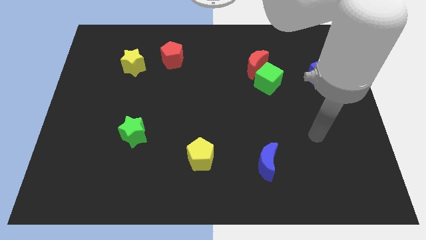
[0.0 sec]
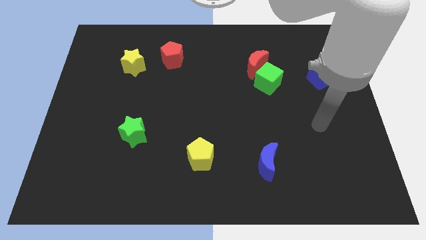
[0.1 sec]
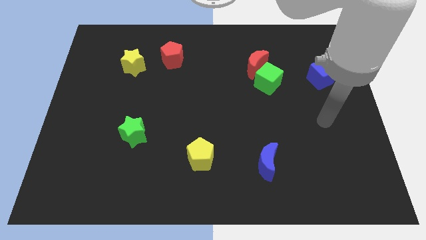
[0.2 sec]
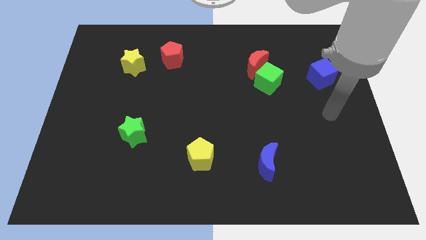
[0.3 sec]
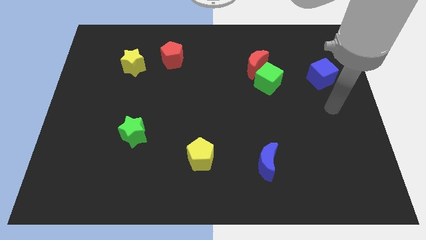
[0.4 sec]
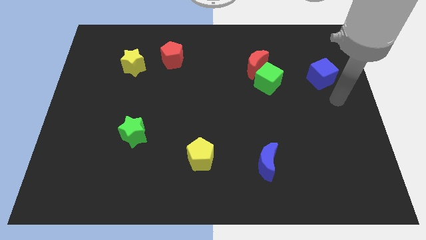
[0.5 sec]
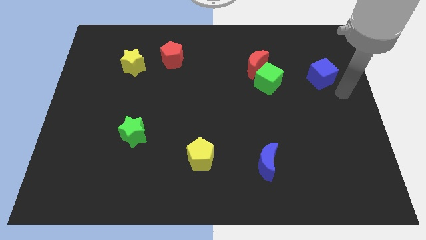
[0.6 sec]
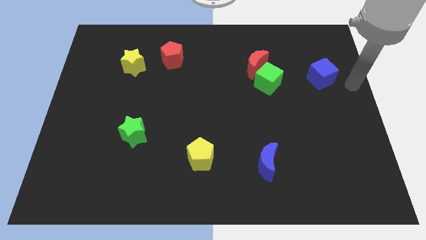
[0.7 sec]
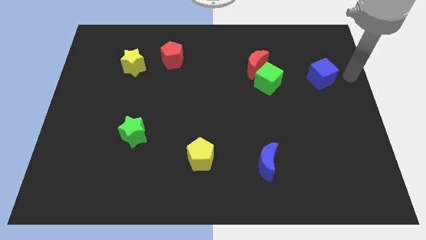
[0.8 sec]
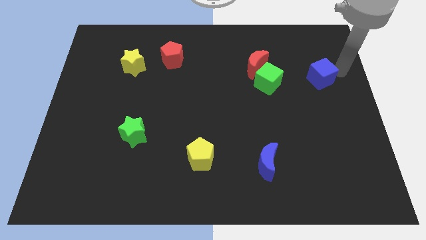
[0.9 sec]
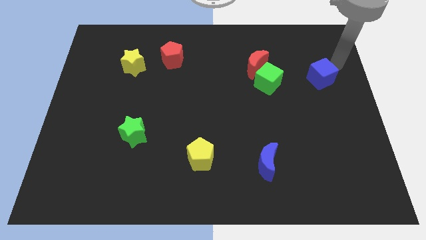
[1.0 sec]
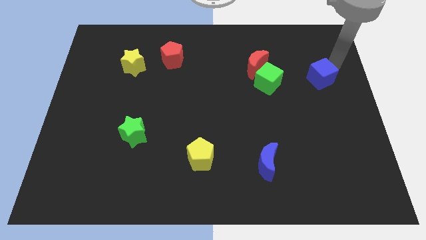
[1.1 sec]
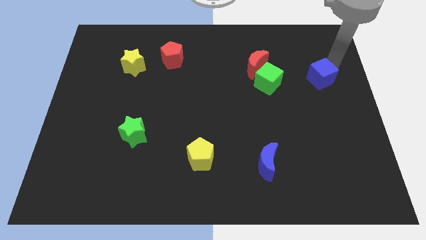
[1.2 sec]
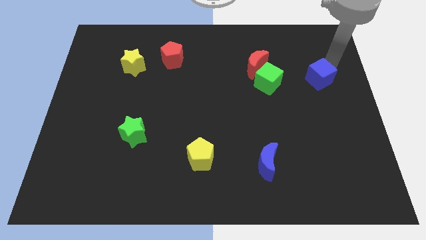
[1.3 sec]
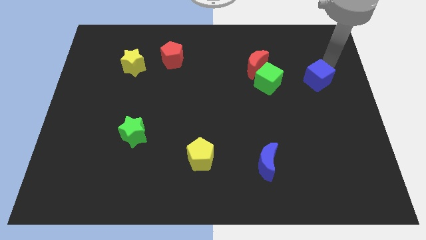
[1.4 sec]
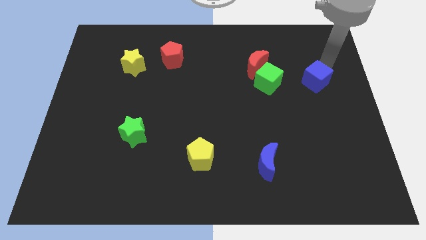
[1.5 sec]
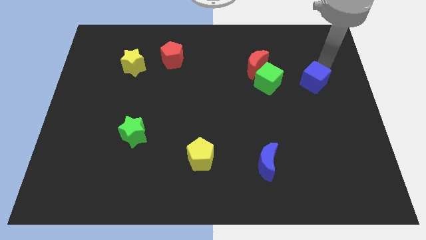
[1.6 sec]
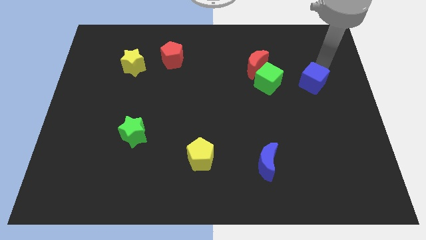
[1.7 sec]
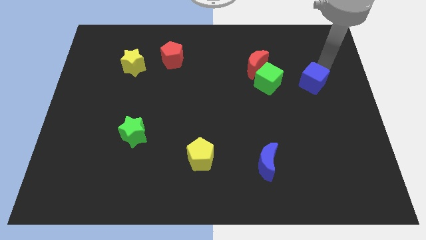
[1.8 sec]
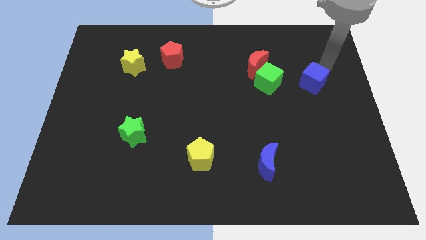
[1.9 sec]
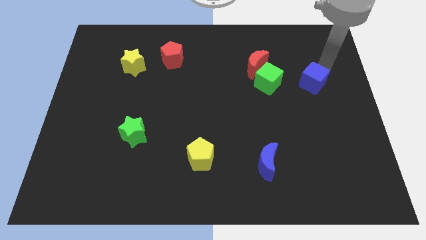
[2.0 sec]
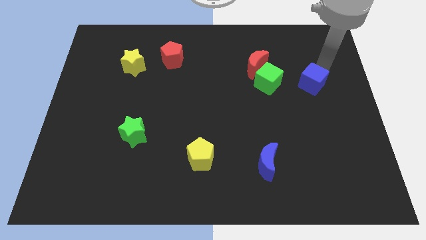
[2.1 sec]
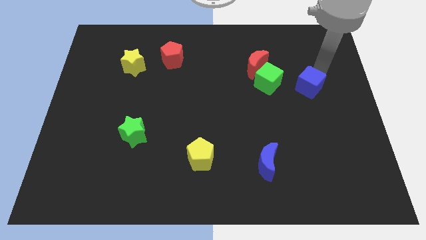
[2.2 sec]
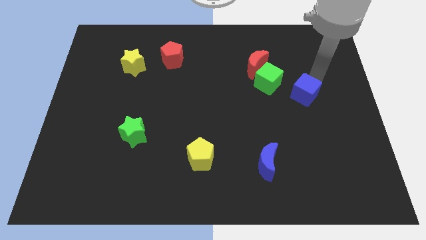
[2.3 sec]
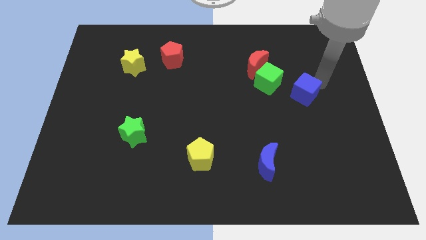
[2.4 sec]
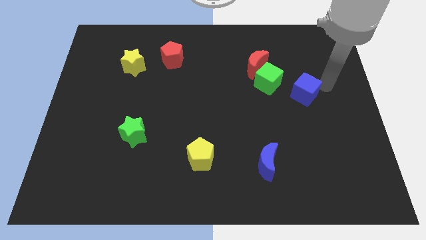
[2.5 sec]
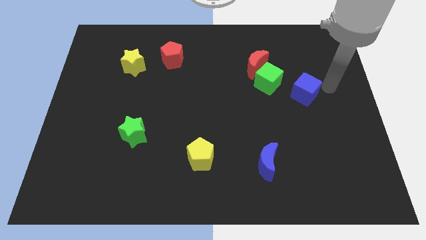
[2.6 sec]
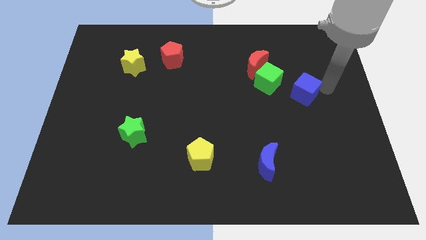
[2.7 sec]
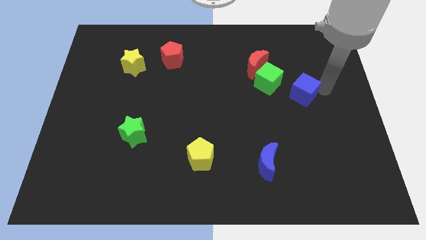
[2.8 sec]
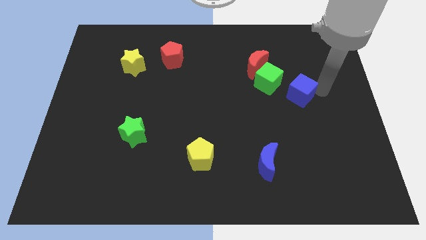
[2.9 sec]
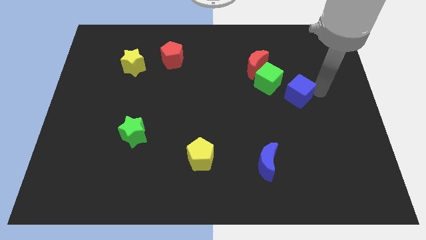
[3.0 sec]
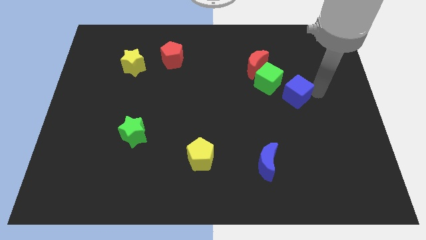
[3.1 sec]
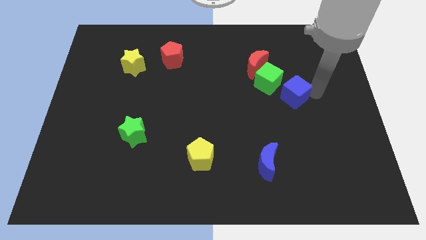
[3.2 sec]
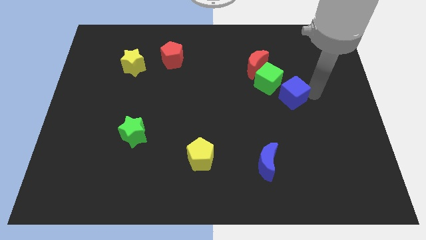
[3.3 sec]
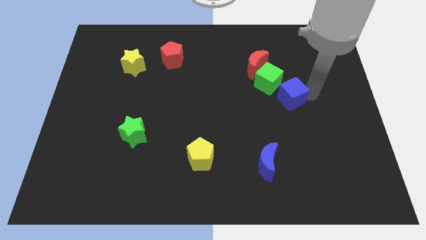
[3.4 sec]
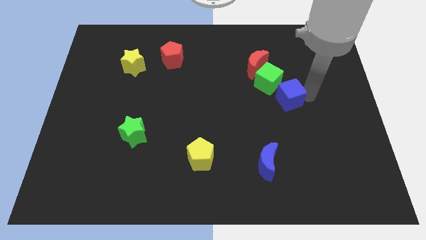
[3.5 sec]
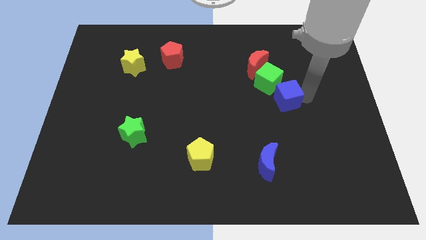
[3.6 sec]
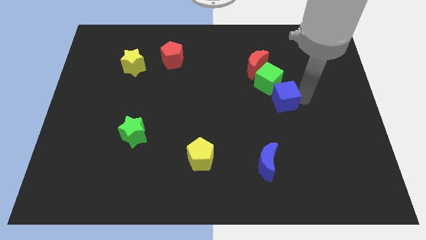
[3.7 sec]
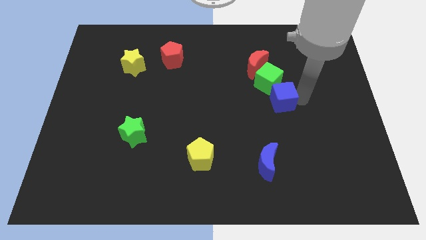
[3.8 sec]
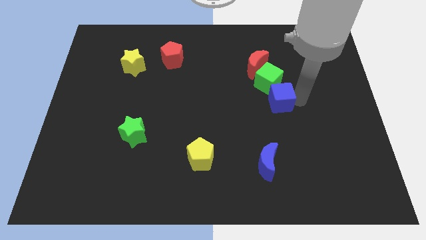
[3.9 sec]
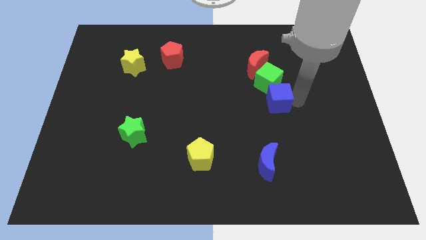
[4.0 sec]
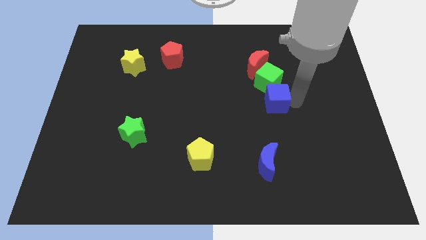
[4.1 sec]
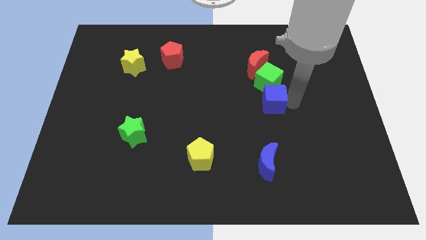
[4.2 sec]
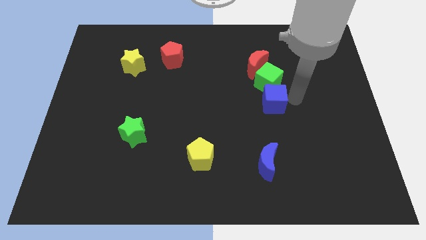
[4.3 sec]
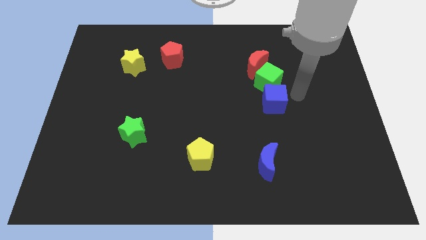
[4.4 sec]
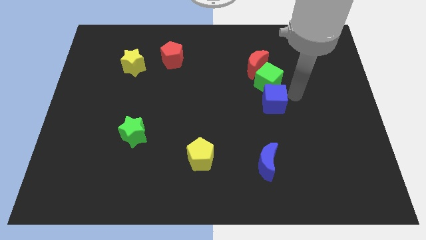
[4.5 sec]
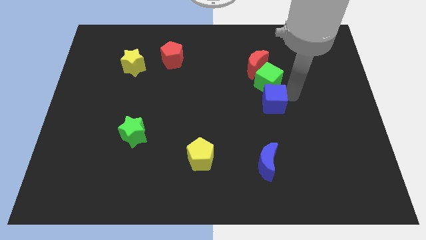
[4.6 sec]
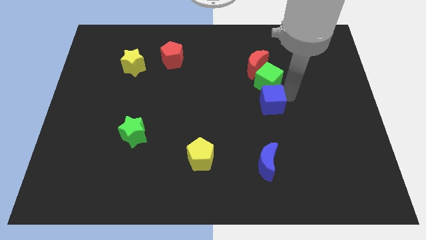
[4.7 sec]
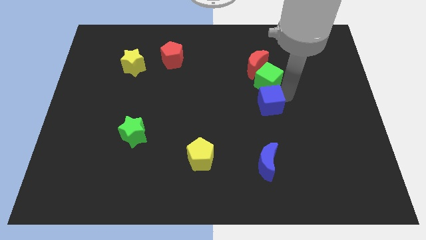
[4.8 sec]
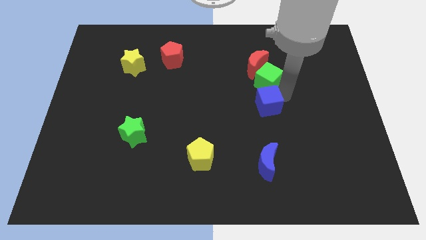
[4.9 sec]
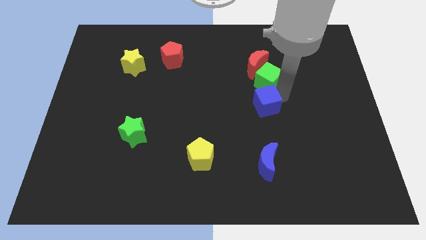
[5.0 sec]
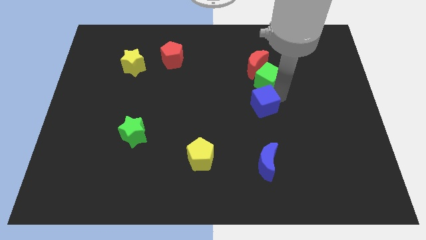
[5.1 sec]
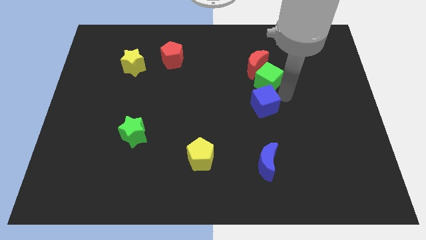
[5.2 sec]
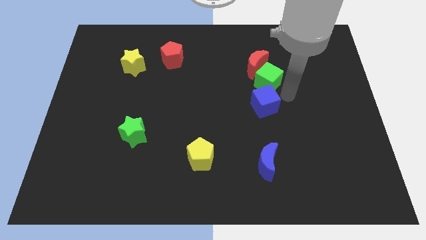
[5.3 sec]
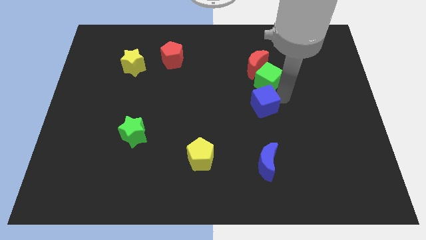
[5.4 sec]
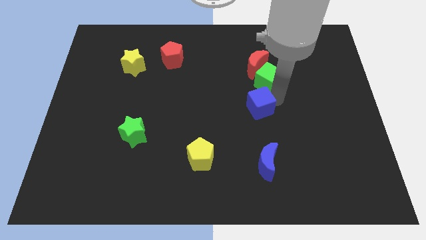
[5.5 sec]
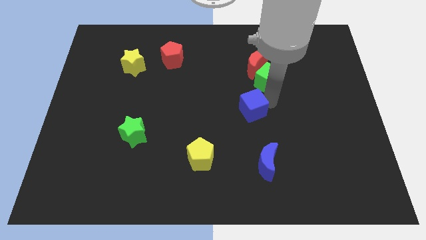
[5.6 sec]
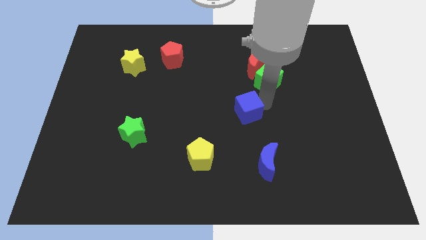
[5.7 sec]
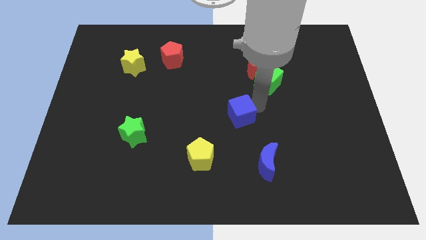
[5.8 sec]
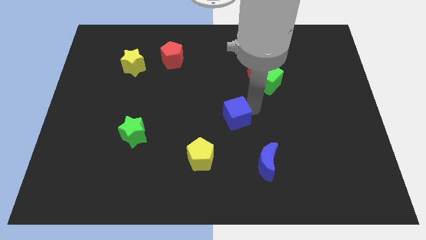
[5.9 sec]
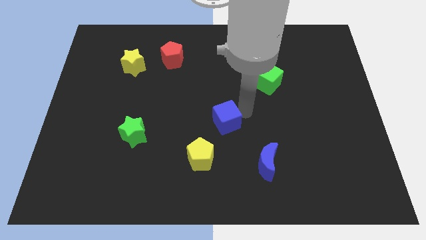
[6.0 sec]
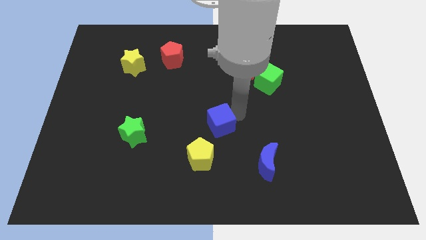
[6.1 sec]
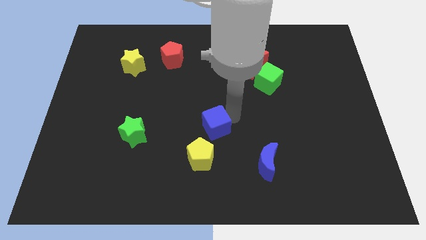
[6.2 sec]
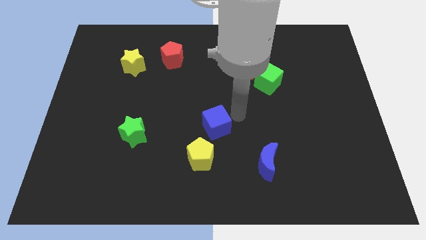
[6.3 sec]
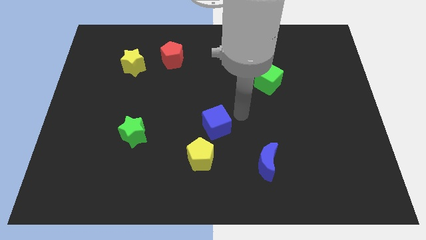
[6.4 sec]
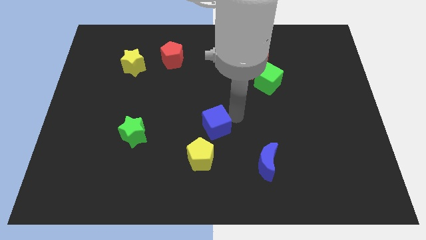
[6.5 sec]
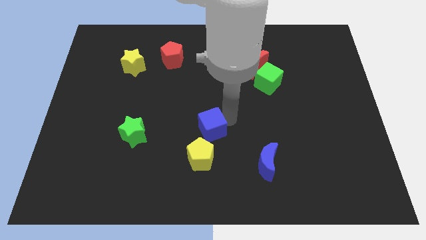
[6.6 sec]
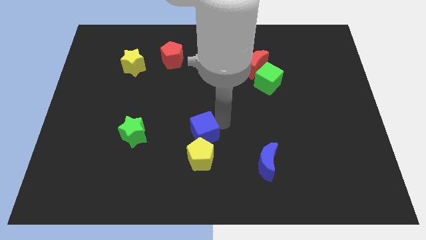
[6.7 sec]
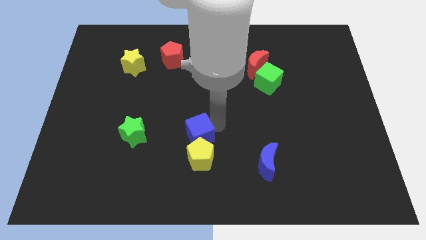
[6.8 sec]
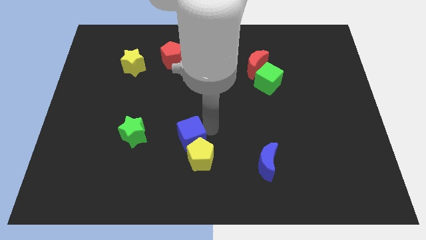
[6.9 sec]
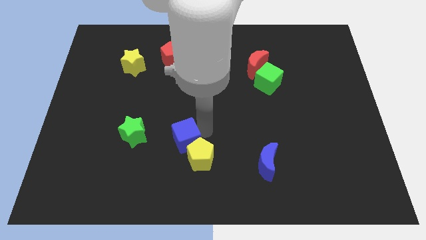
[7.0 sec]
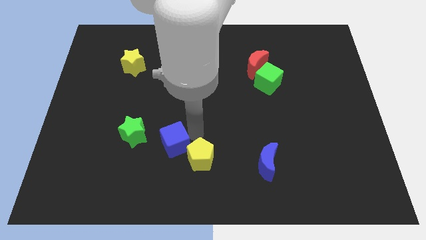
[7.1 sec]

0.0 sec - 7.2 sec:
move the blue cube left of the yellow pentagon

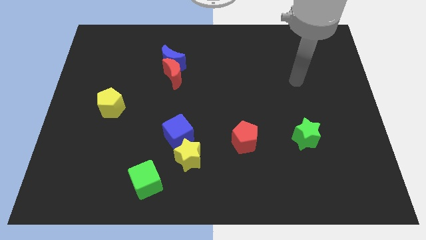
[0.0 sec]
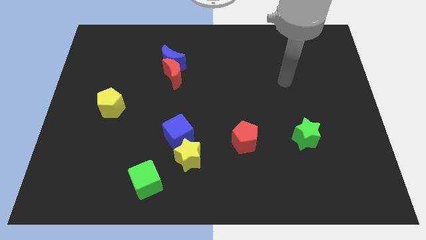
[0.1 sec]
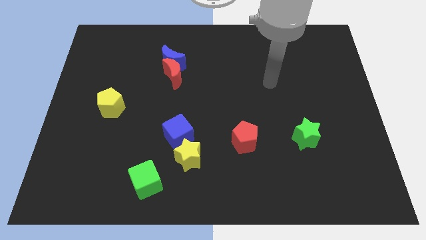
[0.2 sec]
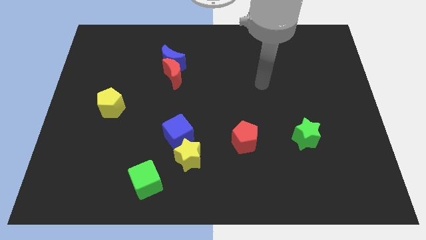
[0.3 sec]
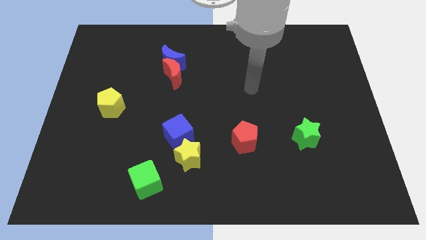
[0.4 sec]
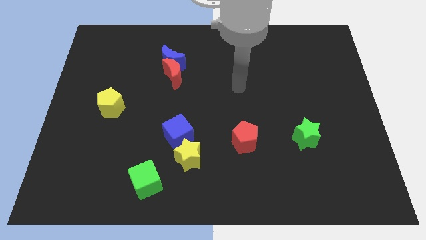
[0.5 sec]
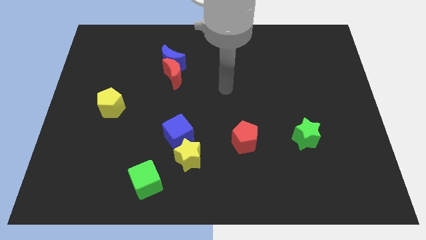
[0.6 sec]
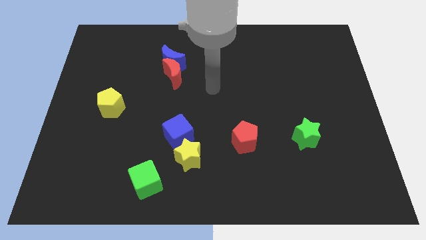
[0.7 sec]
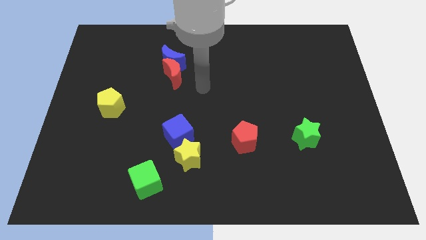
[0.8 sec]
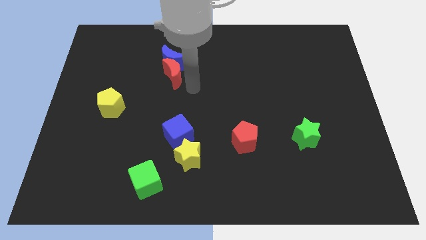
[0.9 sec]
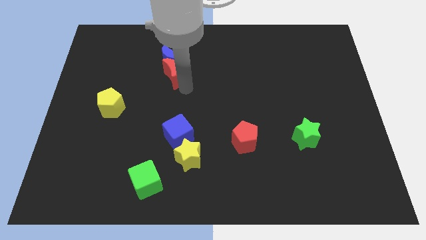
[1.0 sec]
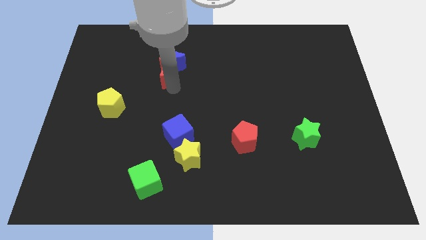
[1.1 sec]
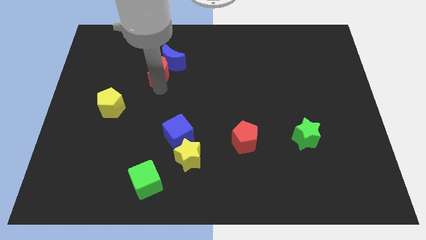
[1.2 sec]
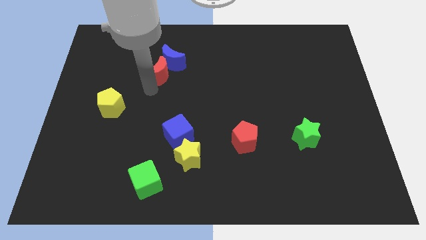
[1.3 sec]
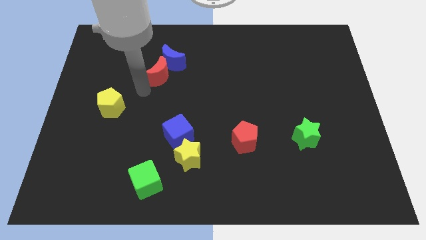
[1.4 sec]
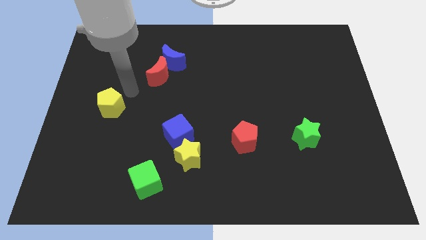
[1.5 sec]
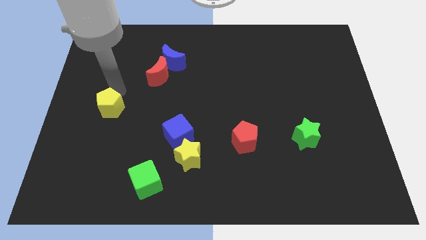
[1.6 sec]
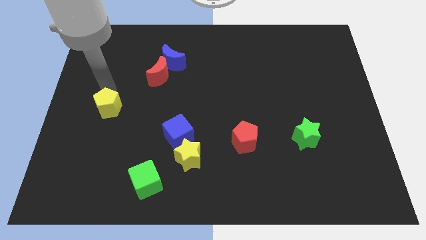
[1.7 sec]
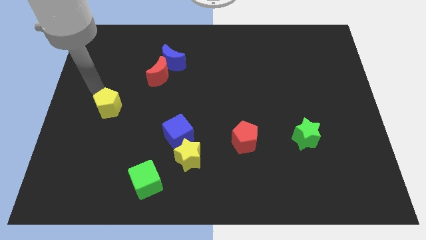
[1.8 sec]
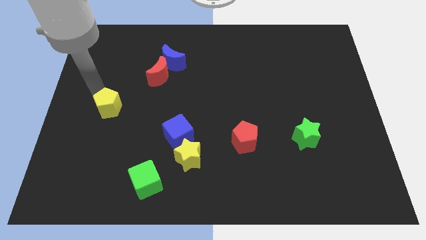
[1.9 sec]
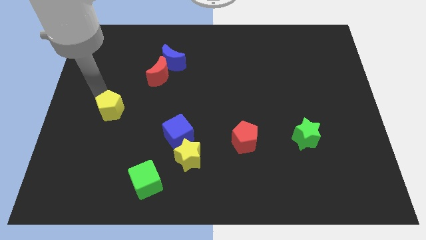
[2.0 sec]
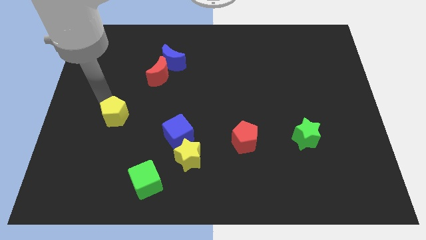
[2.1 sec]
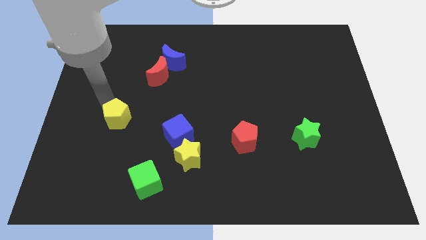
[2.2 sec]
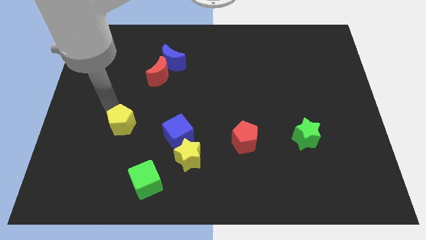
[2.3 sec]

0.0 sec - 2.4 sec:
push the yellow pentagon to the left side of the blue cube
